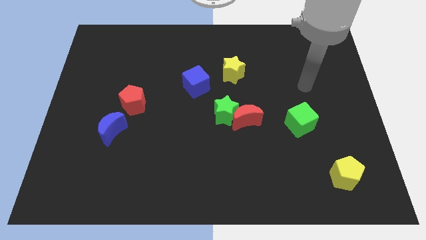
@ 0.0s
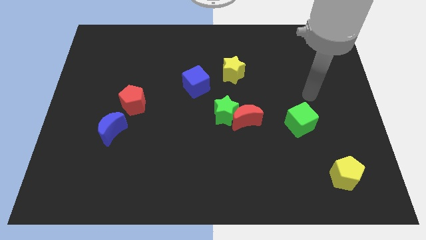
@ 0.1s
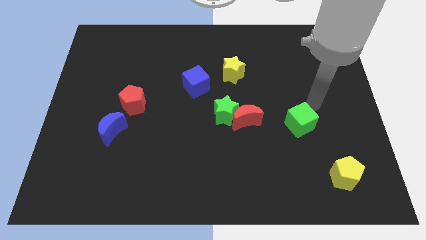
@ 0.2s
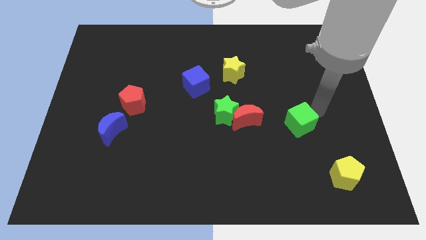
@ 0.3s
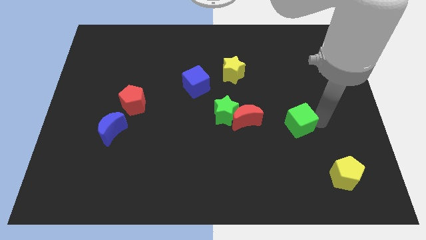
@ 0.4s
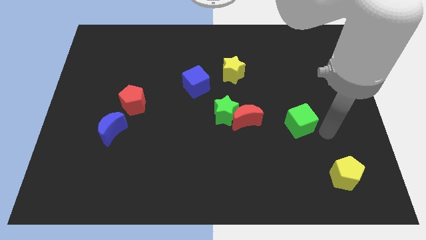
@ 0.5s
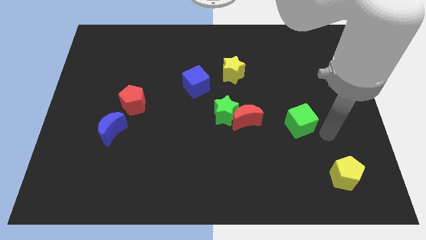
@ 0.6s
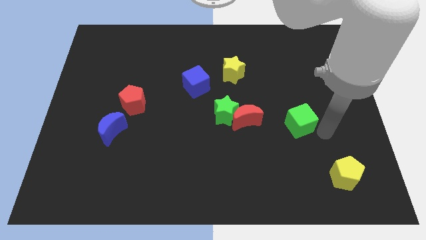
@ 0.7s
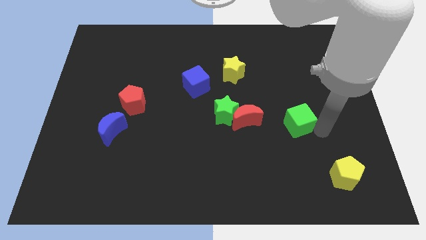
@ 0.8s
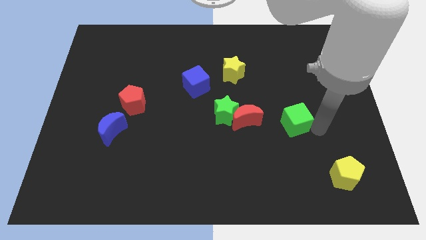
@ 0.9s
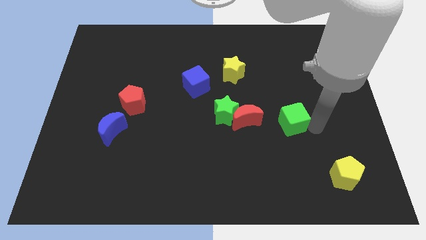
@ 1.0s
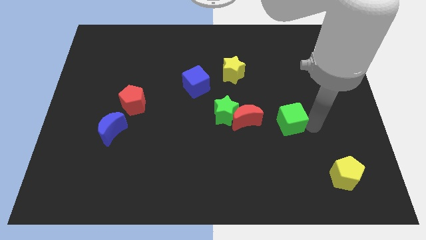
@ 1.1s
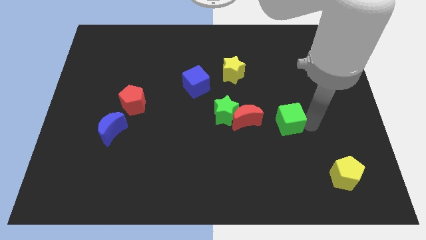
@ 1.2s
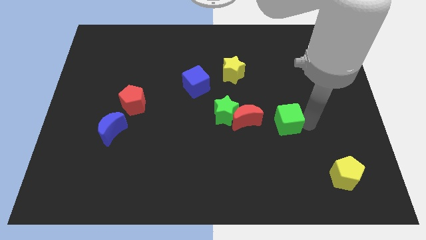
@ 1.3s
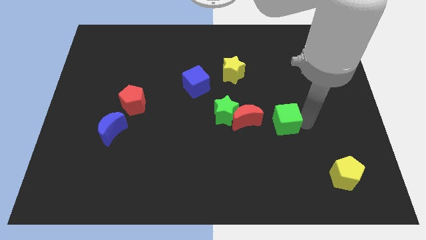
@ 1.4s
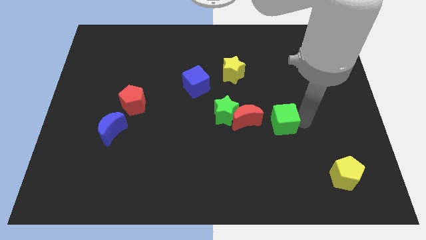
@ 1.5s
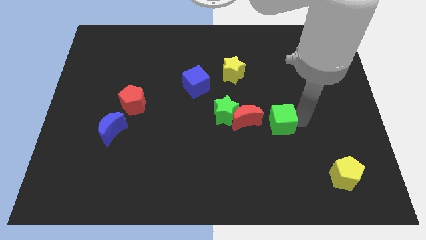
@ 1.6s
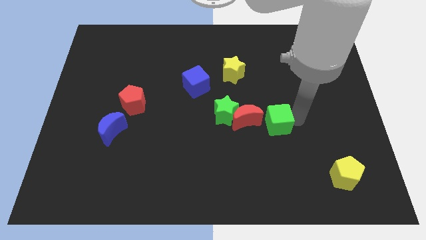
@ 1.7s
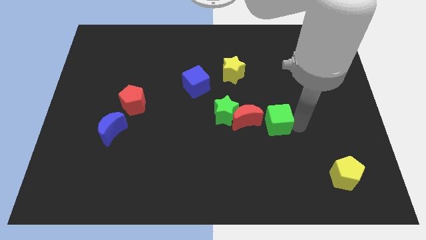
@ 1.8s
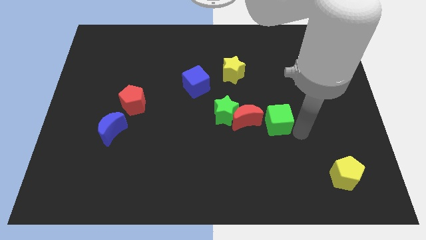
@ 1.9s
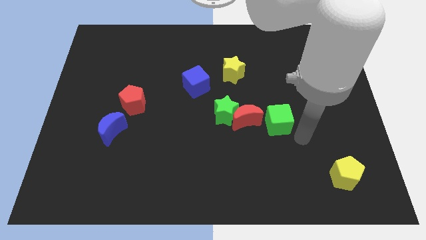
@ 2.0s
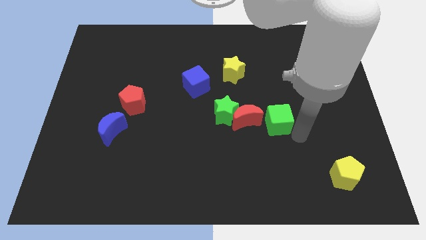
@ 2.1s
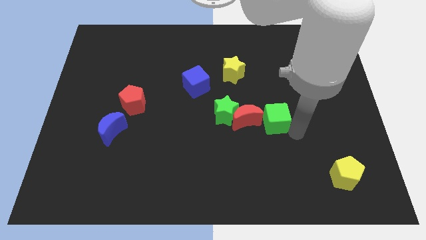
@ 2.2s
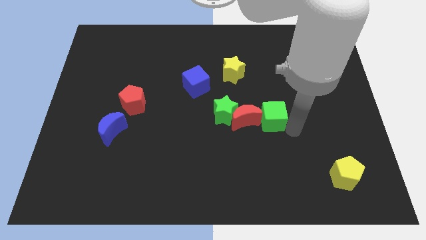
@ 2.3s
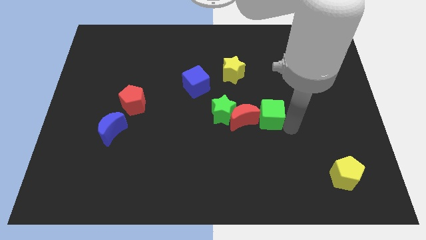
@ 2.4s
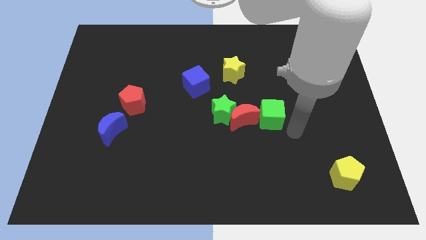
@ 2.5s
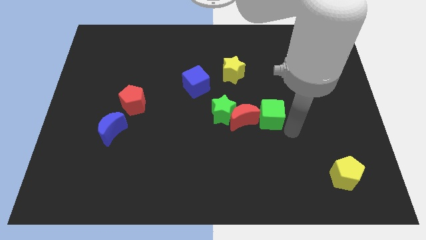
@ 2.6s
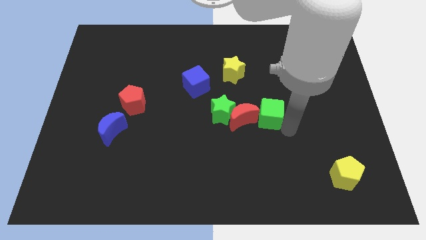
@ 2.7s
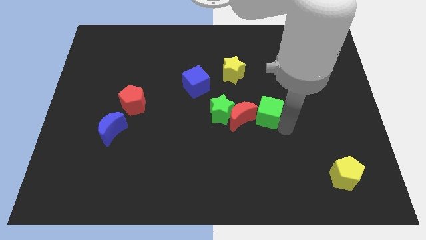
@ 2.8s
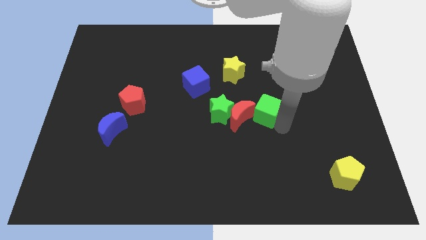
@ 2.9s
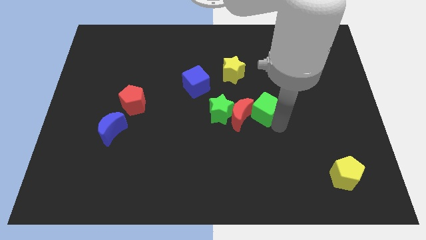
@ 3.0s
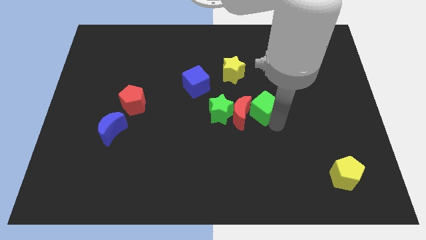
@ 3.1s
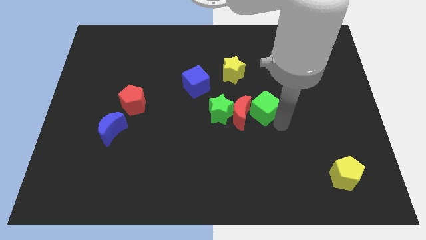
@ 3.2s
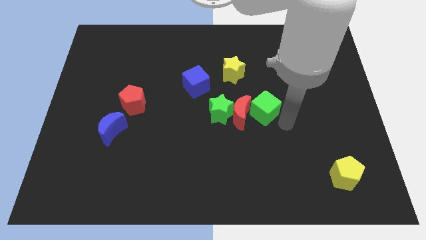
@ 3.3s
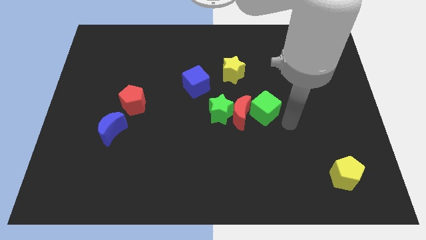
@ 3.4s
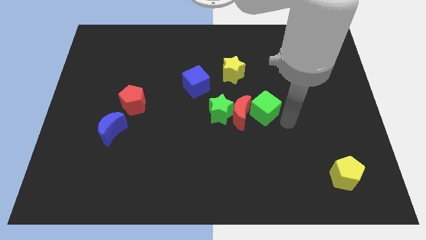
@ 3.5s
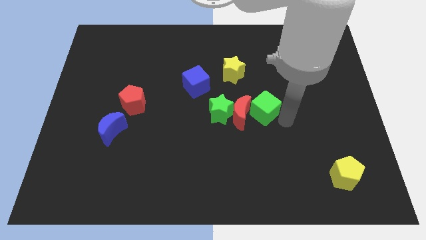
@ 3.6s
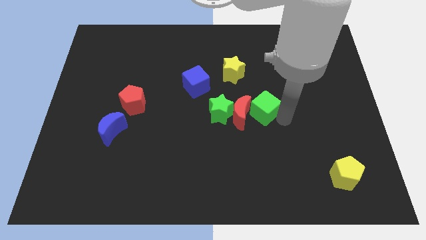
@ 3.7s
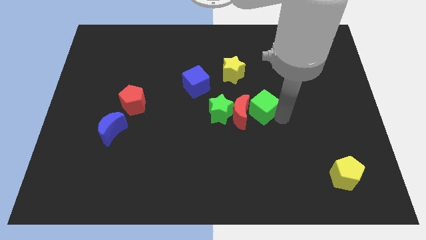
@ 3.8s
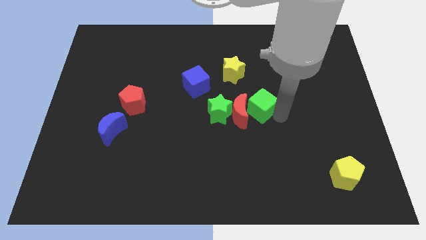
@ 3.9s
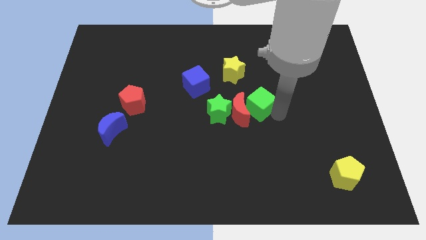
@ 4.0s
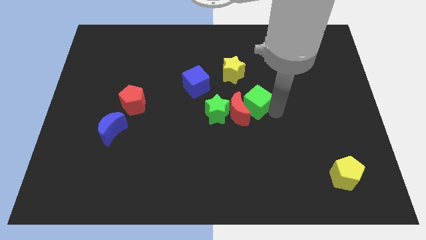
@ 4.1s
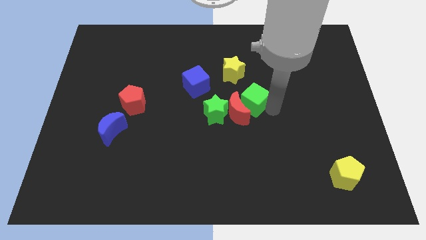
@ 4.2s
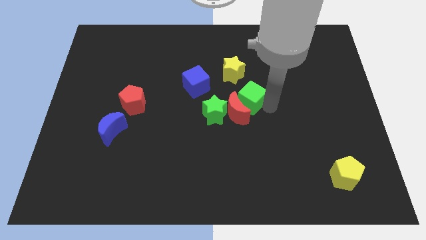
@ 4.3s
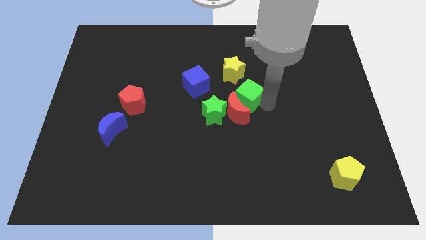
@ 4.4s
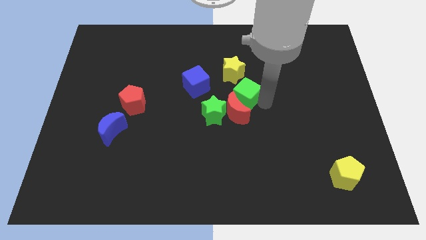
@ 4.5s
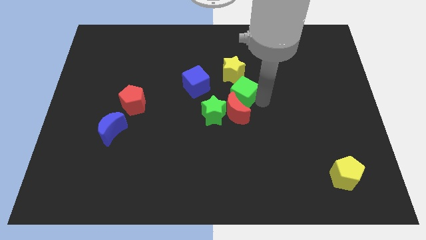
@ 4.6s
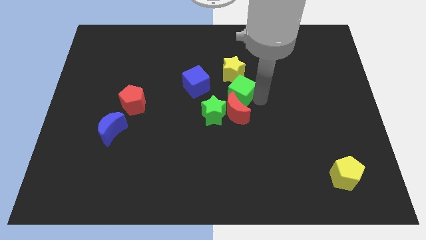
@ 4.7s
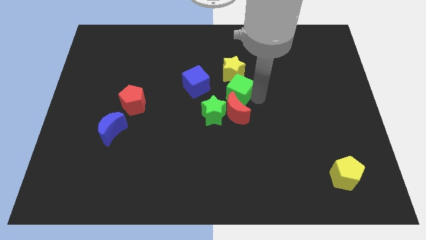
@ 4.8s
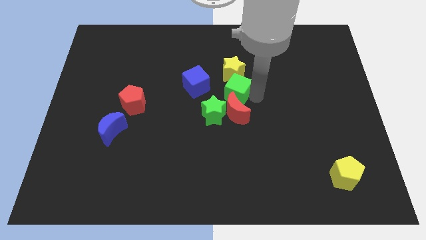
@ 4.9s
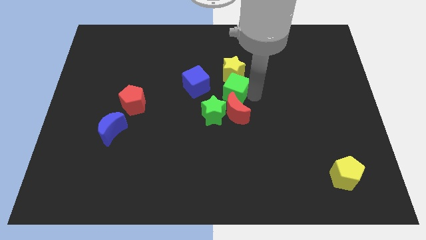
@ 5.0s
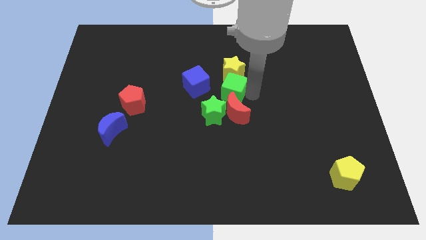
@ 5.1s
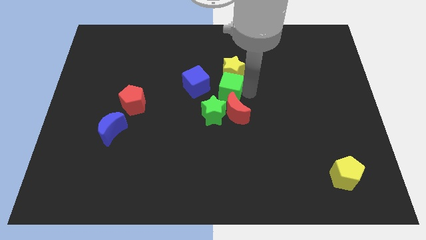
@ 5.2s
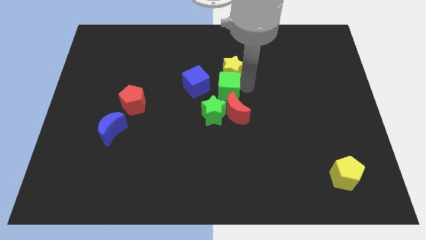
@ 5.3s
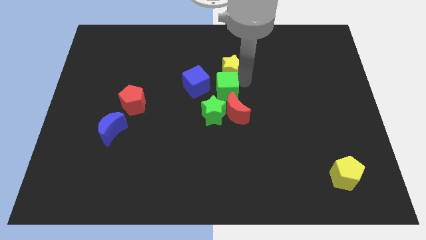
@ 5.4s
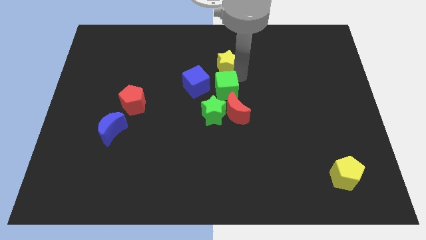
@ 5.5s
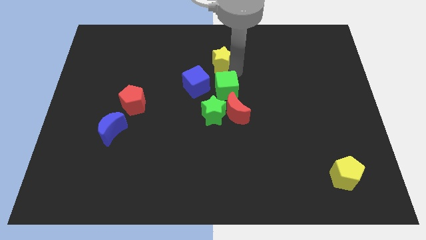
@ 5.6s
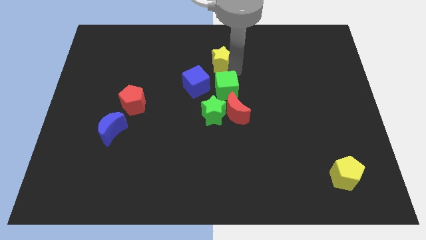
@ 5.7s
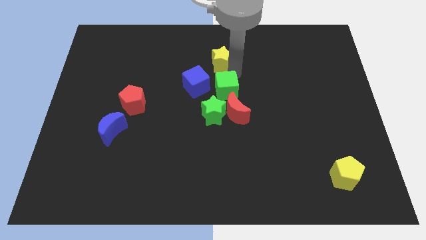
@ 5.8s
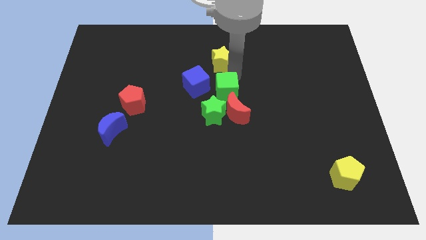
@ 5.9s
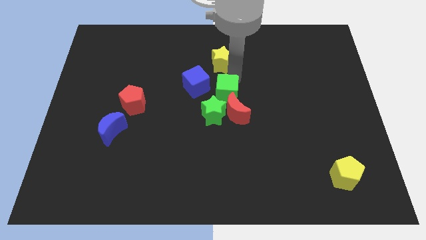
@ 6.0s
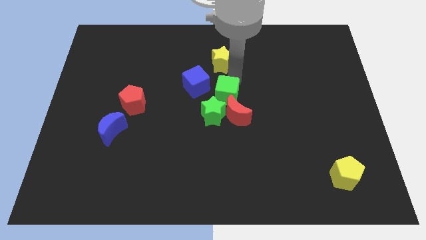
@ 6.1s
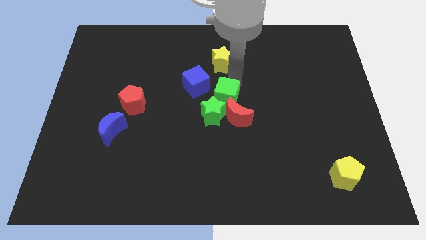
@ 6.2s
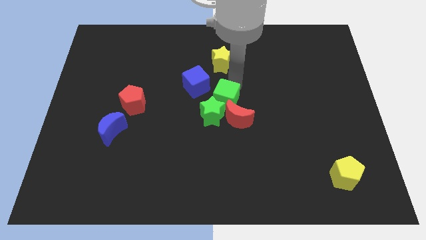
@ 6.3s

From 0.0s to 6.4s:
push the green cube towards the green star

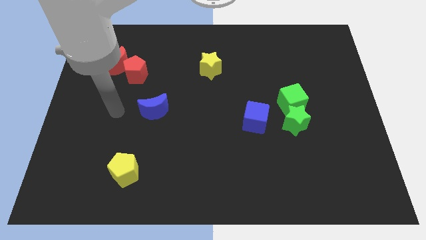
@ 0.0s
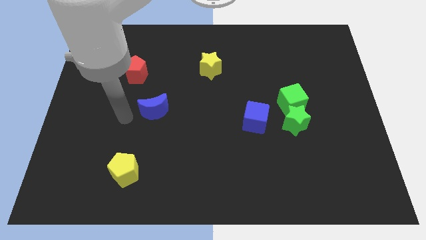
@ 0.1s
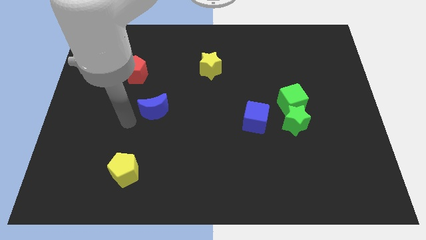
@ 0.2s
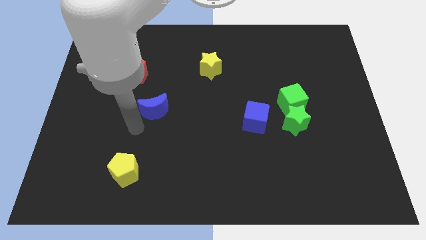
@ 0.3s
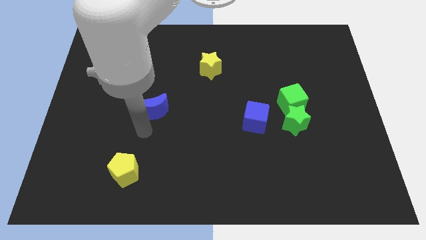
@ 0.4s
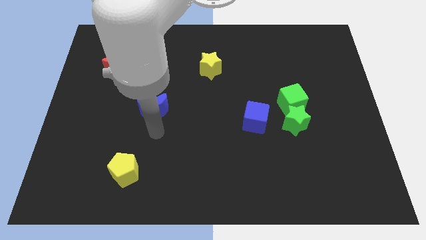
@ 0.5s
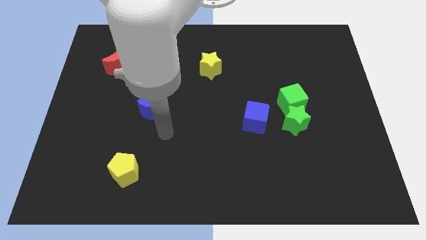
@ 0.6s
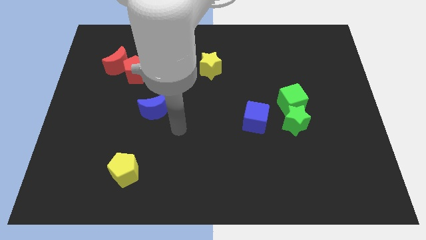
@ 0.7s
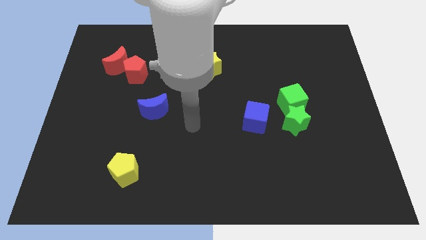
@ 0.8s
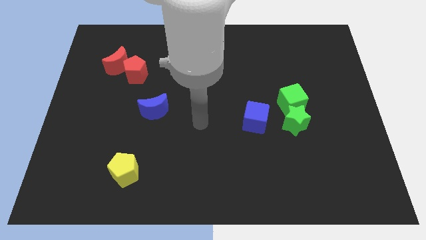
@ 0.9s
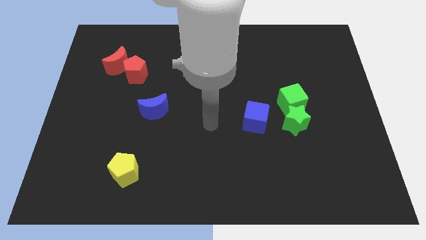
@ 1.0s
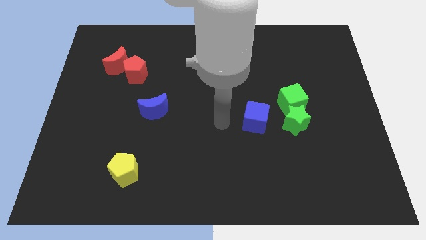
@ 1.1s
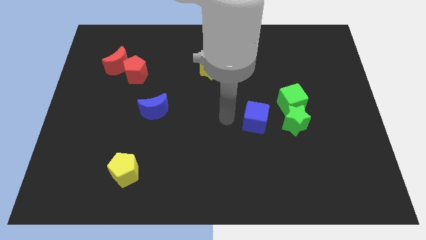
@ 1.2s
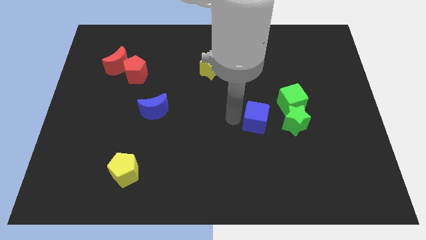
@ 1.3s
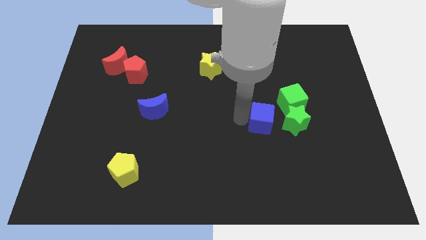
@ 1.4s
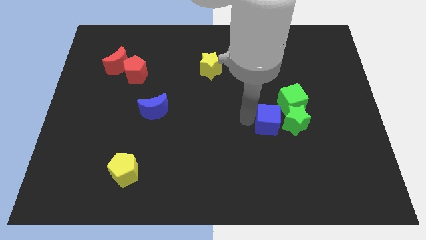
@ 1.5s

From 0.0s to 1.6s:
push the blue cube close to the green star
